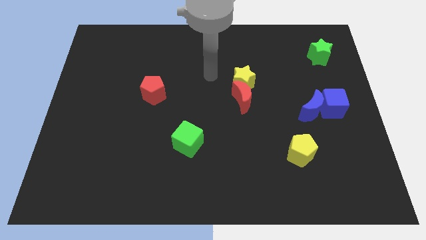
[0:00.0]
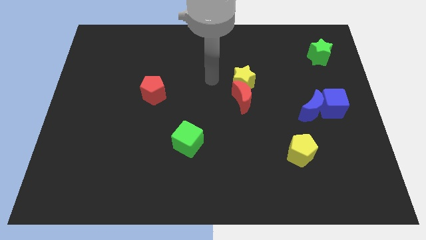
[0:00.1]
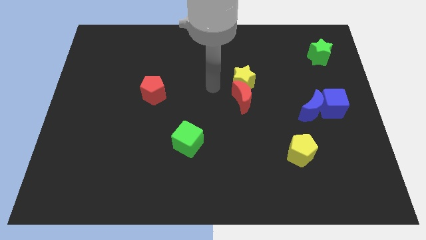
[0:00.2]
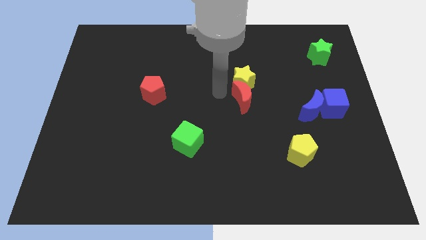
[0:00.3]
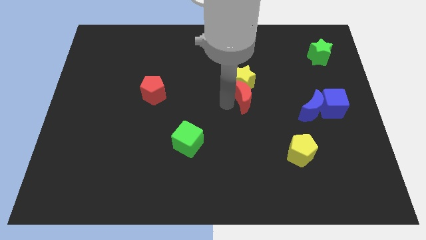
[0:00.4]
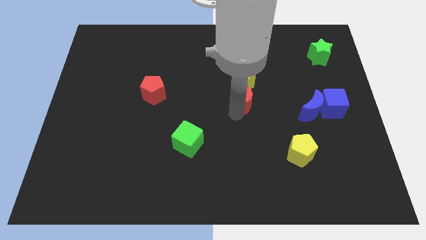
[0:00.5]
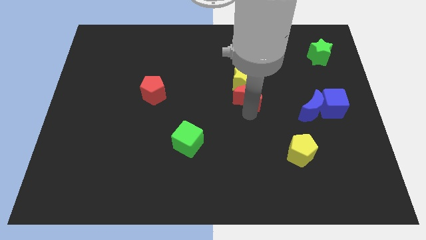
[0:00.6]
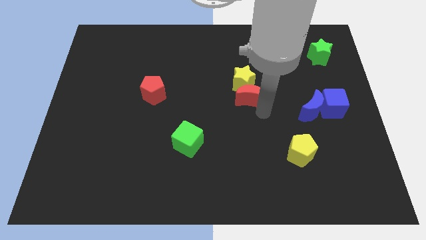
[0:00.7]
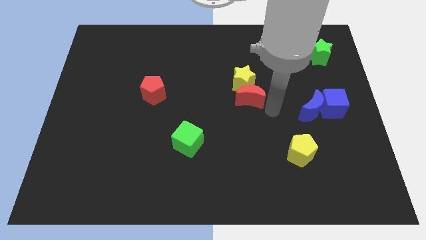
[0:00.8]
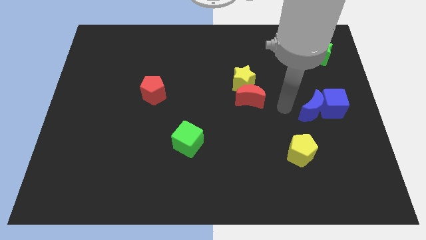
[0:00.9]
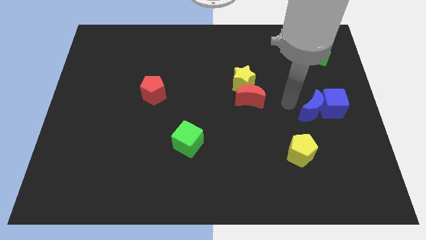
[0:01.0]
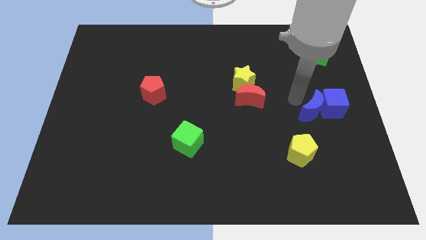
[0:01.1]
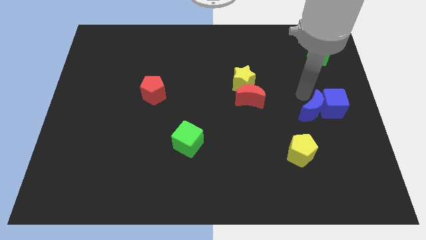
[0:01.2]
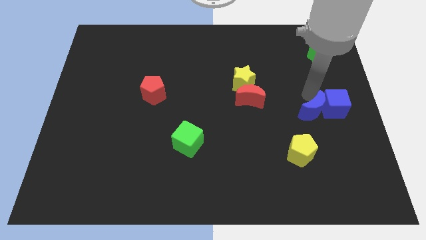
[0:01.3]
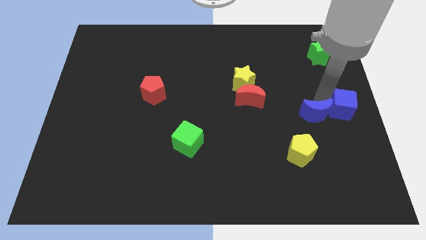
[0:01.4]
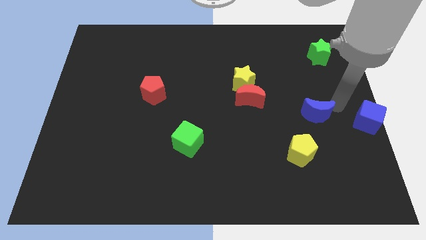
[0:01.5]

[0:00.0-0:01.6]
pull the blue moon apart from the blue cube

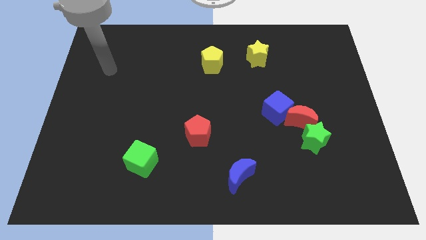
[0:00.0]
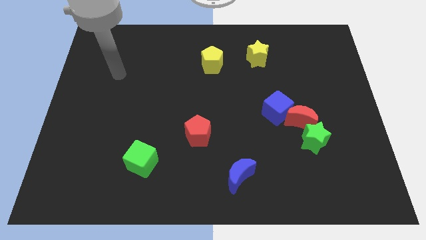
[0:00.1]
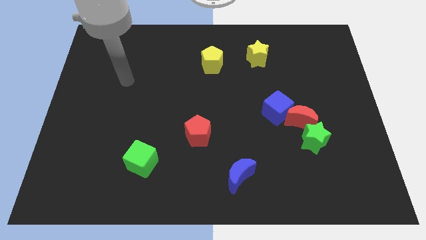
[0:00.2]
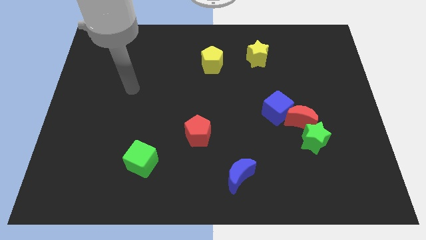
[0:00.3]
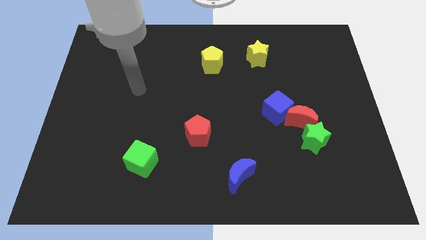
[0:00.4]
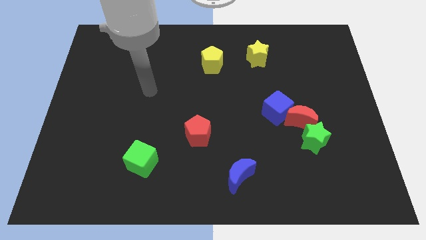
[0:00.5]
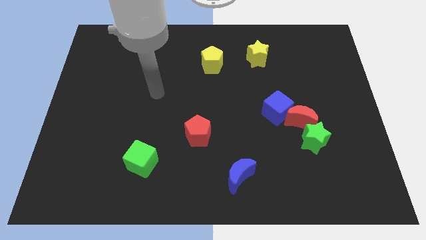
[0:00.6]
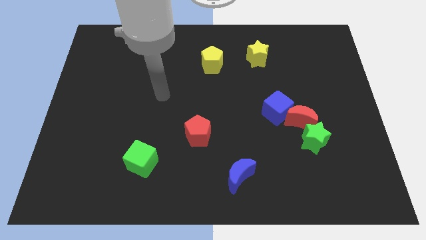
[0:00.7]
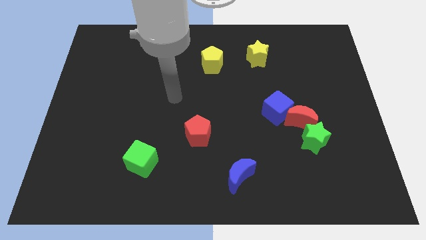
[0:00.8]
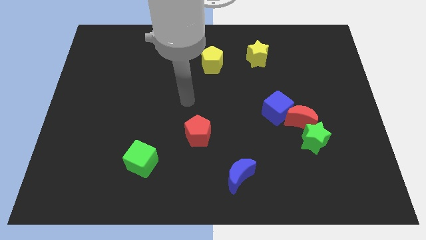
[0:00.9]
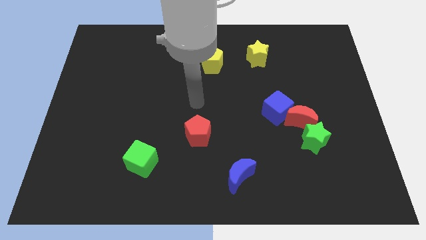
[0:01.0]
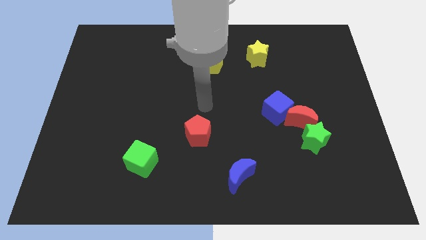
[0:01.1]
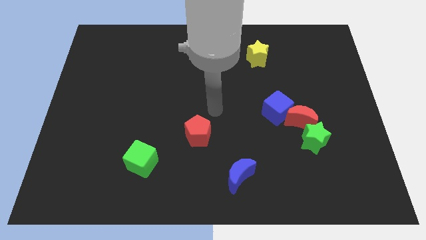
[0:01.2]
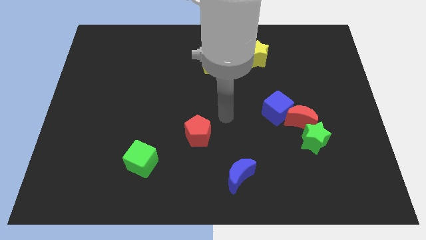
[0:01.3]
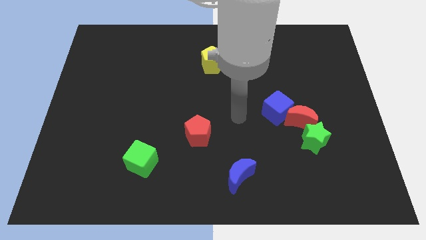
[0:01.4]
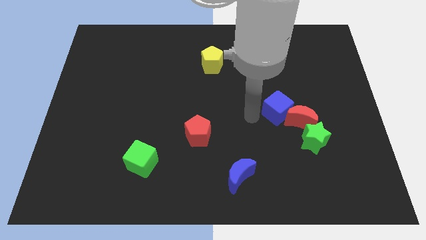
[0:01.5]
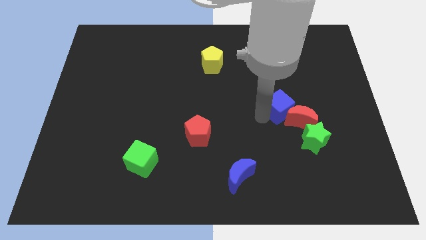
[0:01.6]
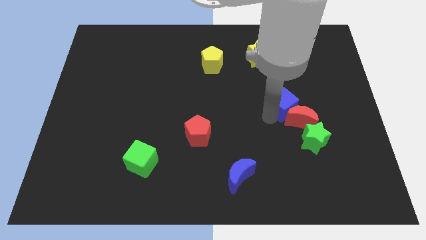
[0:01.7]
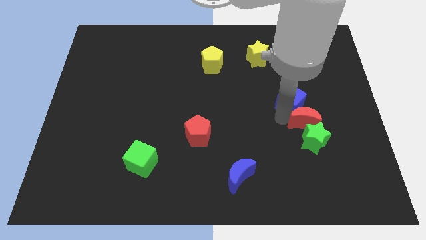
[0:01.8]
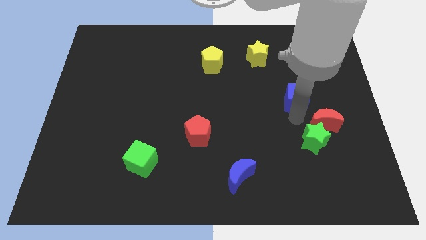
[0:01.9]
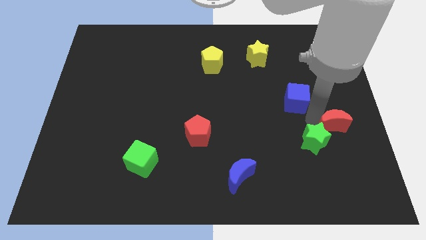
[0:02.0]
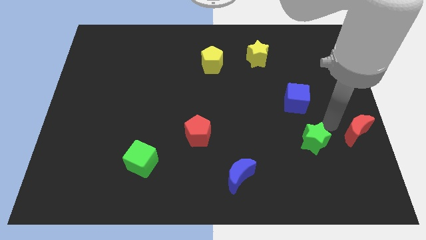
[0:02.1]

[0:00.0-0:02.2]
separate the green star from the red moon

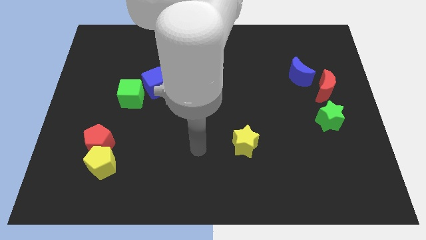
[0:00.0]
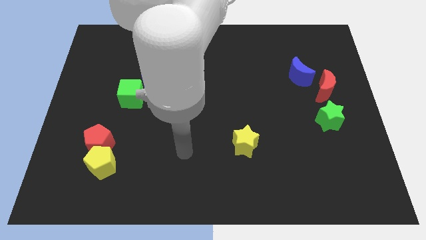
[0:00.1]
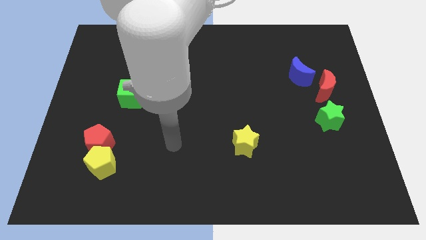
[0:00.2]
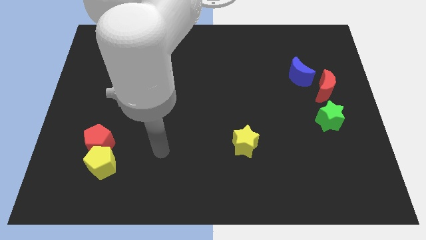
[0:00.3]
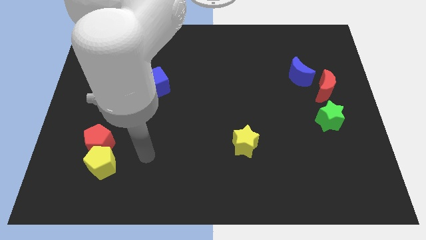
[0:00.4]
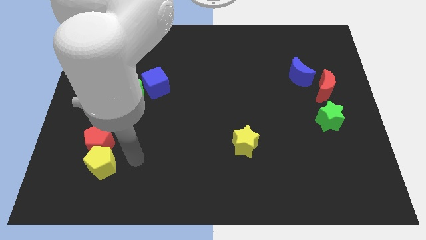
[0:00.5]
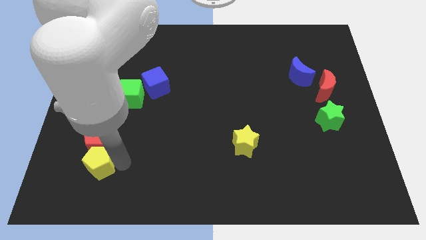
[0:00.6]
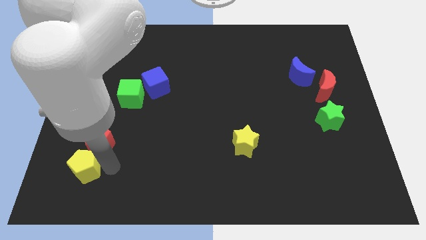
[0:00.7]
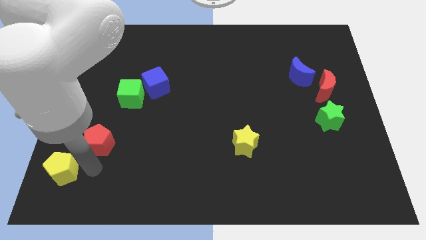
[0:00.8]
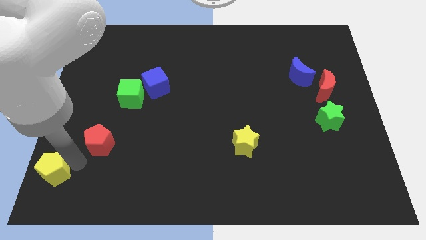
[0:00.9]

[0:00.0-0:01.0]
move the red pentagon away from the yellow pentagon

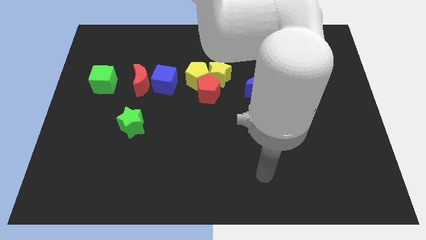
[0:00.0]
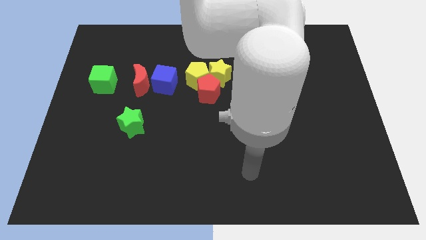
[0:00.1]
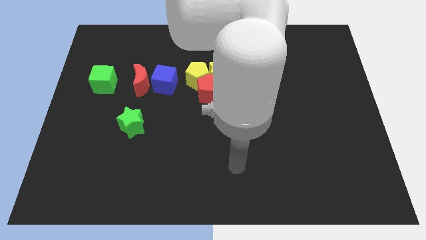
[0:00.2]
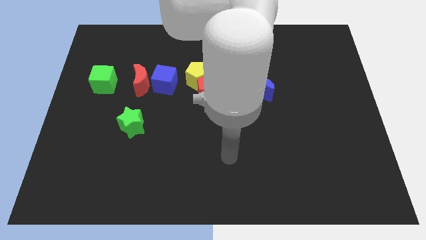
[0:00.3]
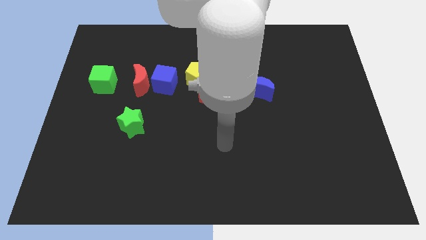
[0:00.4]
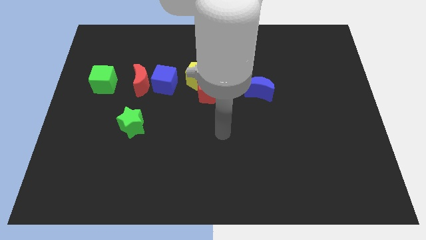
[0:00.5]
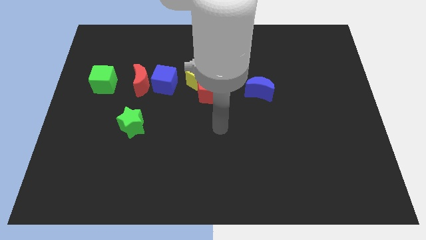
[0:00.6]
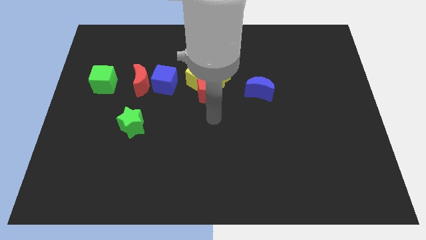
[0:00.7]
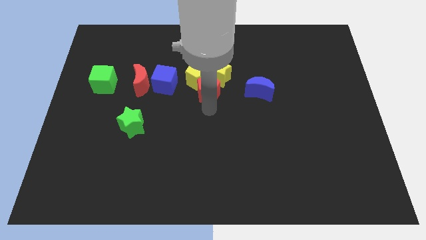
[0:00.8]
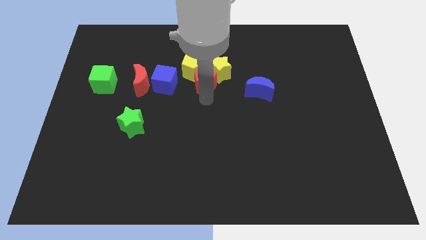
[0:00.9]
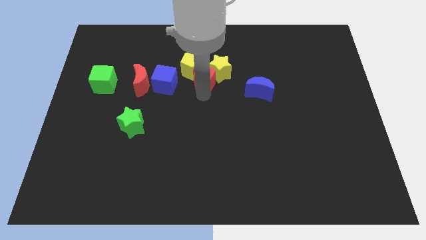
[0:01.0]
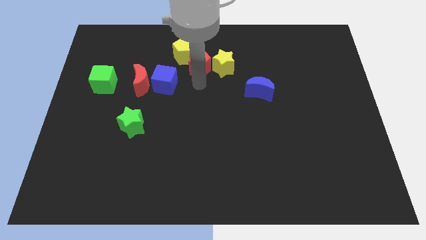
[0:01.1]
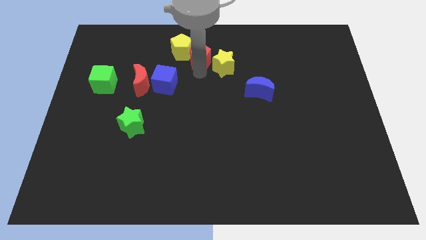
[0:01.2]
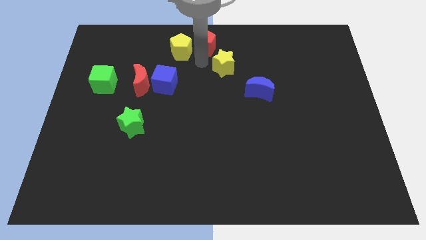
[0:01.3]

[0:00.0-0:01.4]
separate the yellow star from the yellow pentagon and red pentagon

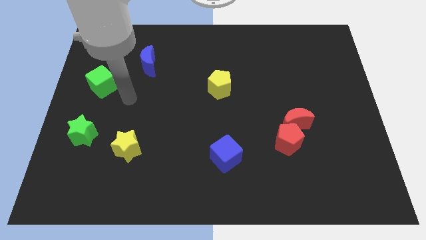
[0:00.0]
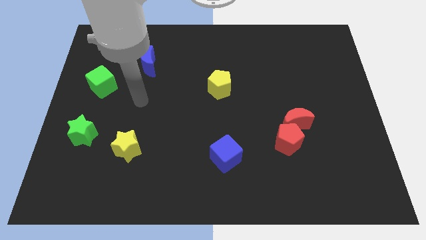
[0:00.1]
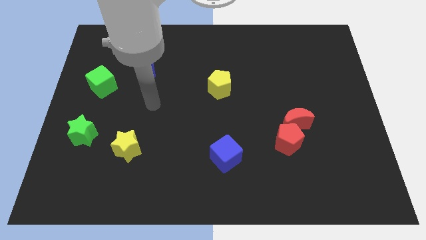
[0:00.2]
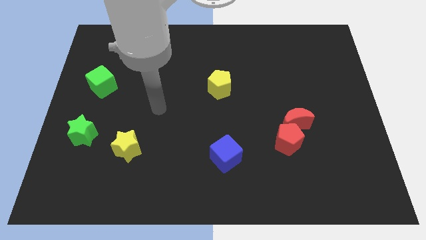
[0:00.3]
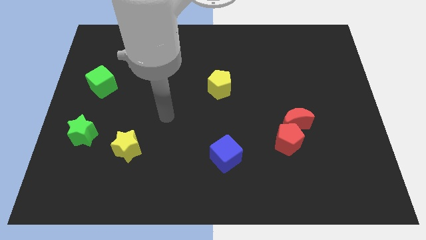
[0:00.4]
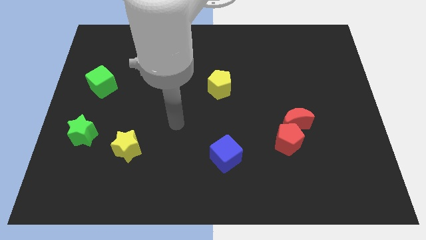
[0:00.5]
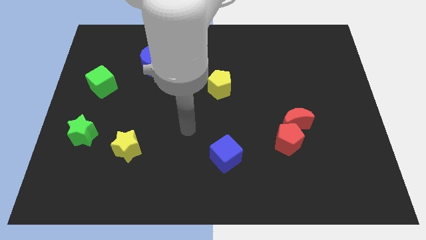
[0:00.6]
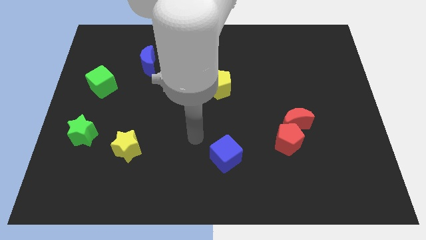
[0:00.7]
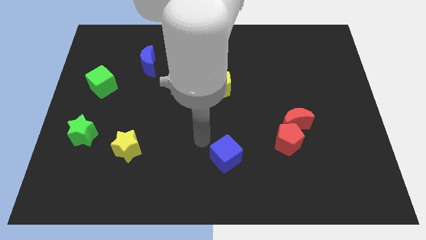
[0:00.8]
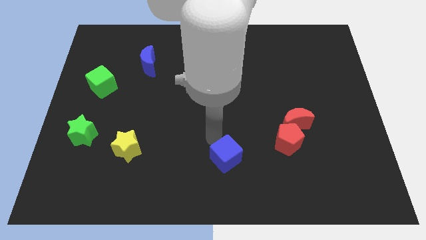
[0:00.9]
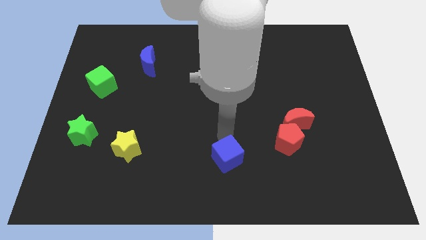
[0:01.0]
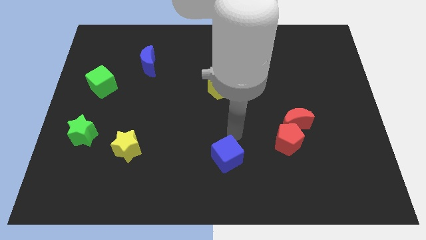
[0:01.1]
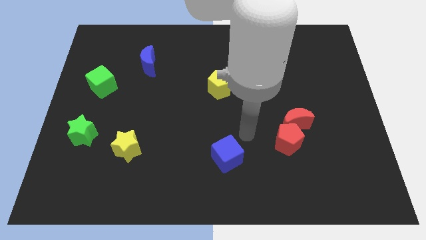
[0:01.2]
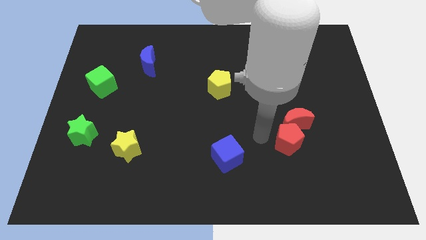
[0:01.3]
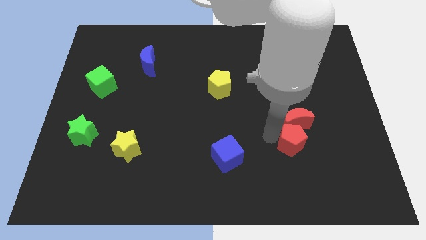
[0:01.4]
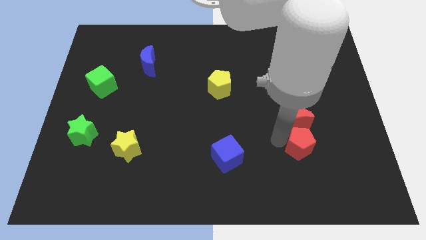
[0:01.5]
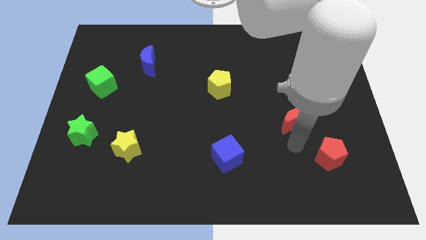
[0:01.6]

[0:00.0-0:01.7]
pull the red moon apart from the red pentagon

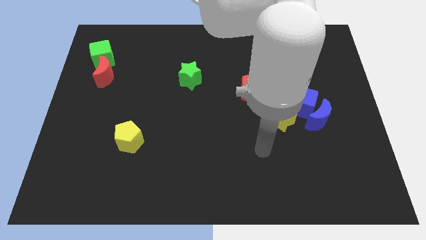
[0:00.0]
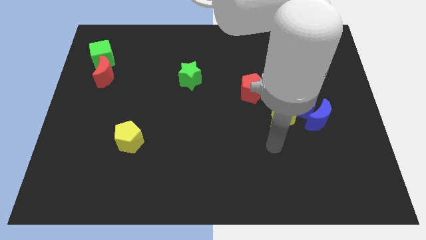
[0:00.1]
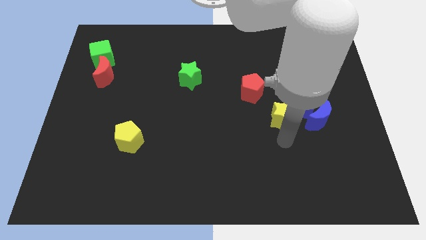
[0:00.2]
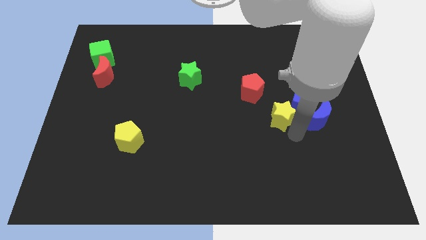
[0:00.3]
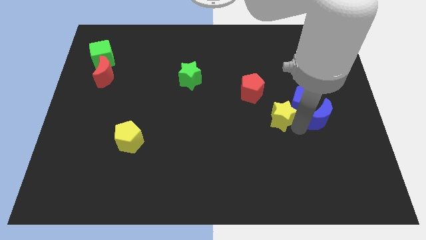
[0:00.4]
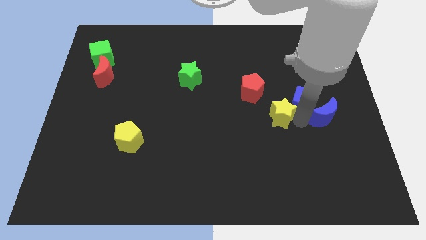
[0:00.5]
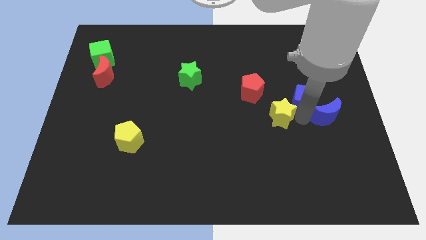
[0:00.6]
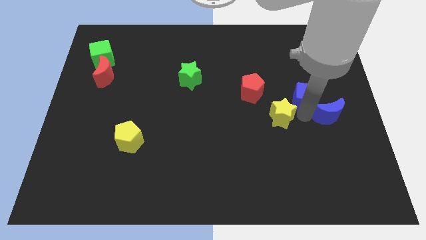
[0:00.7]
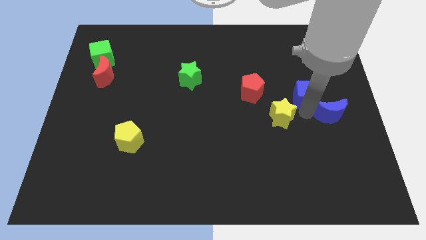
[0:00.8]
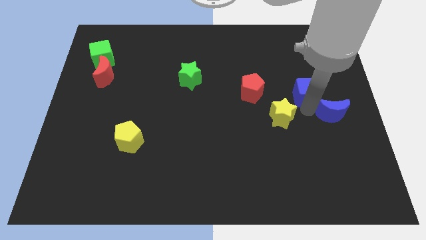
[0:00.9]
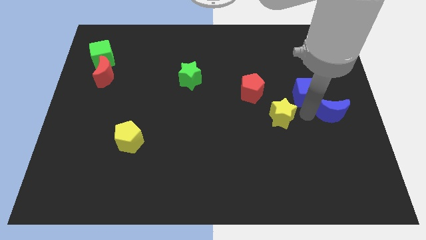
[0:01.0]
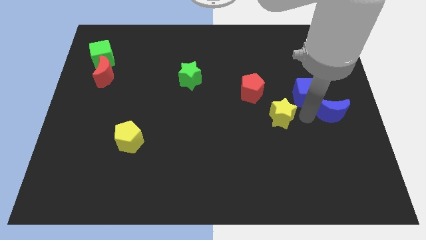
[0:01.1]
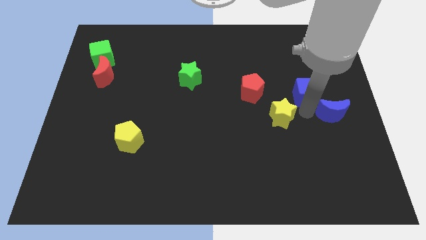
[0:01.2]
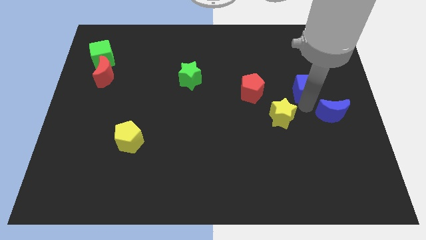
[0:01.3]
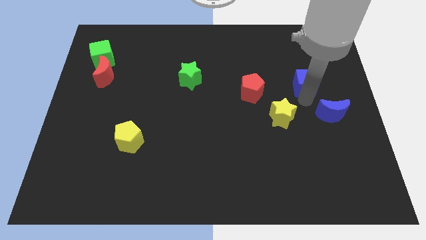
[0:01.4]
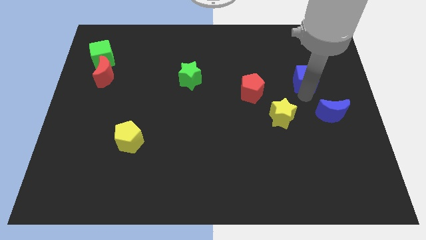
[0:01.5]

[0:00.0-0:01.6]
separate the blue cube from the blue moon and yellow star
